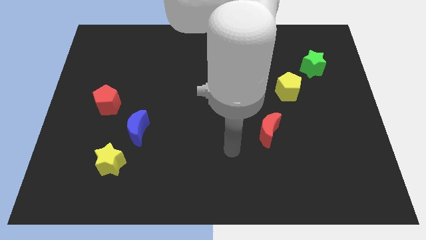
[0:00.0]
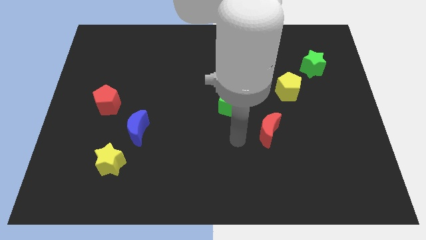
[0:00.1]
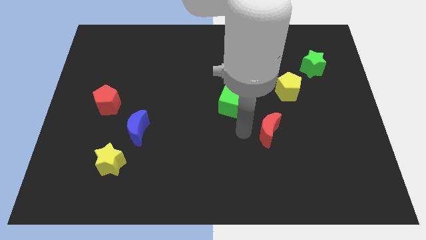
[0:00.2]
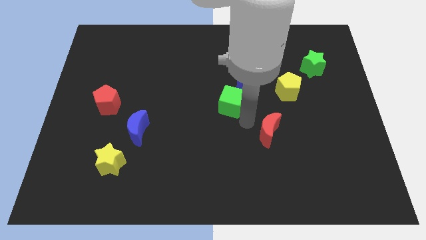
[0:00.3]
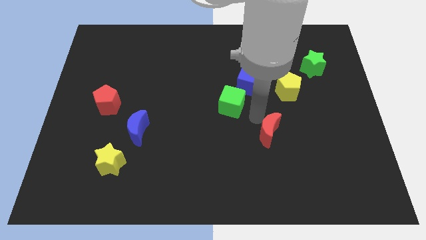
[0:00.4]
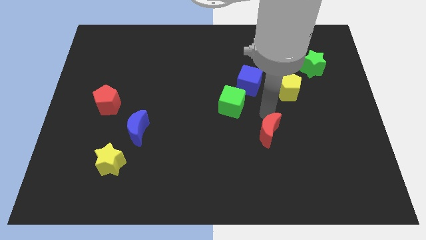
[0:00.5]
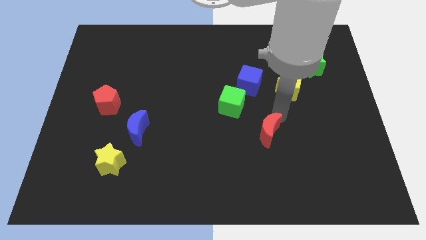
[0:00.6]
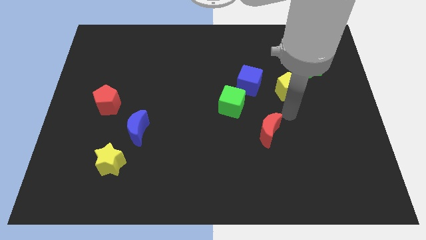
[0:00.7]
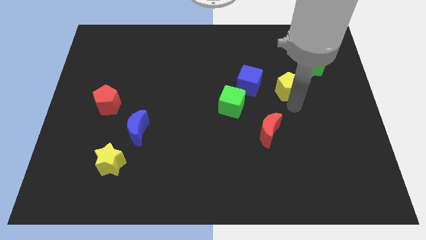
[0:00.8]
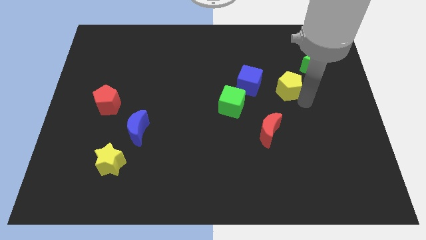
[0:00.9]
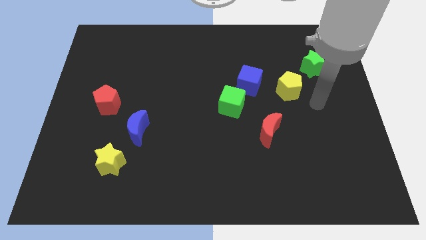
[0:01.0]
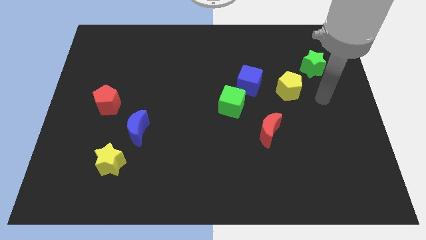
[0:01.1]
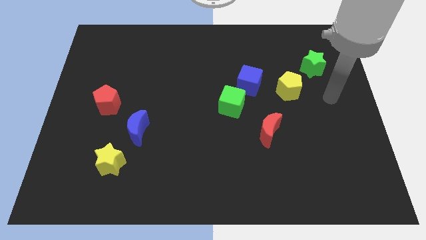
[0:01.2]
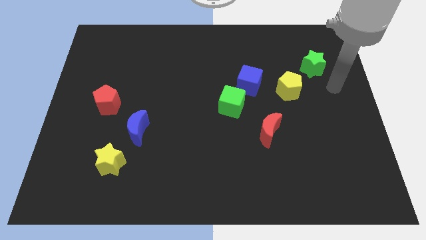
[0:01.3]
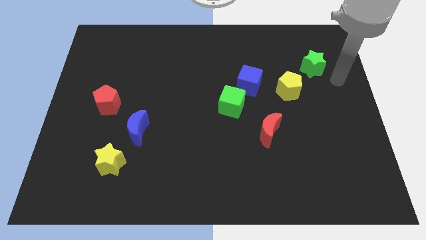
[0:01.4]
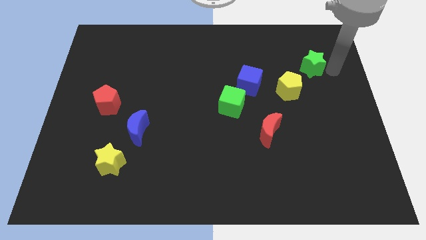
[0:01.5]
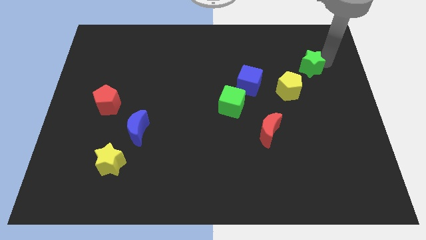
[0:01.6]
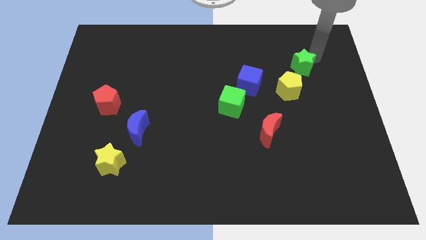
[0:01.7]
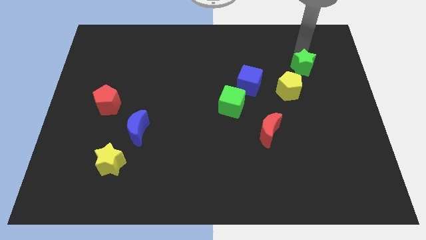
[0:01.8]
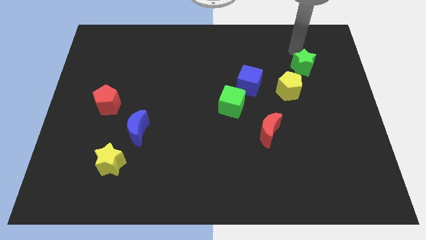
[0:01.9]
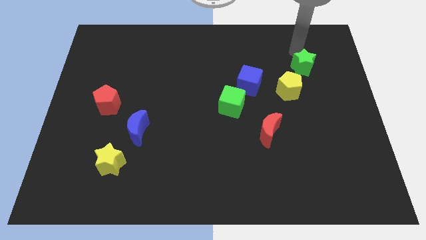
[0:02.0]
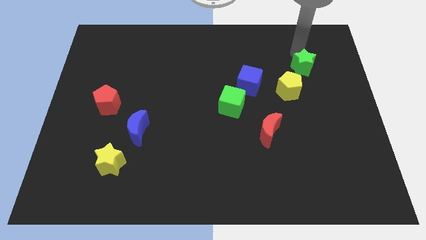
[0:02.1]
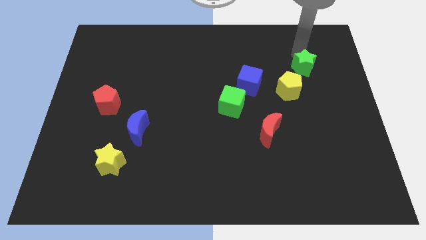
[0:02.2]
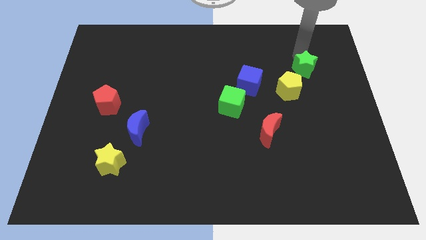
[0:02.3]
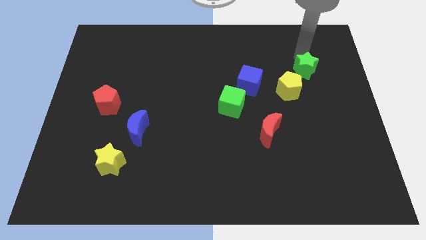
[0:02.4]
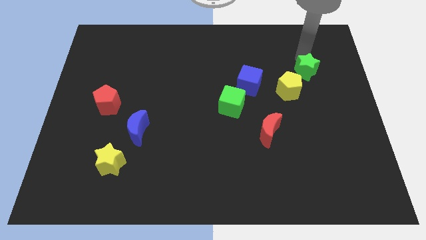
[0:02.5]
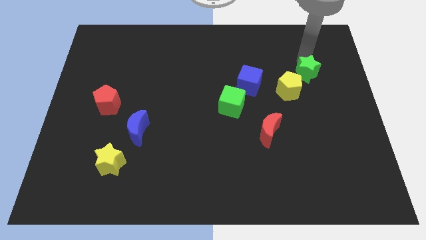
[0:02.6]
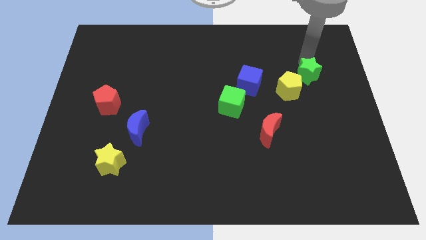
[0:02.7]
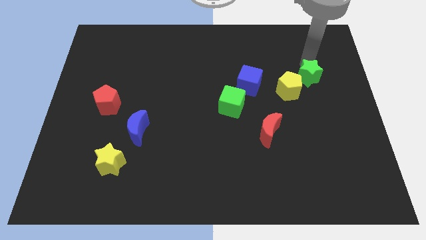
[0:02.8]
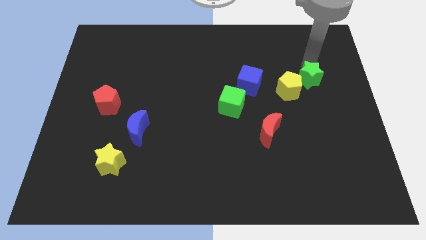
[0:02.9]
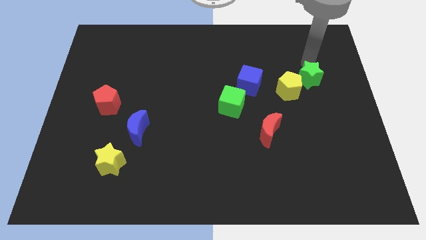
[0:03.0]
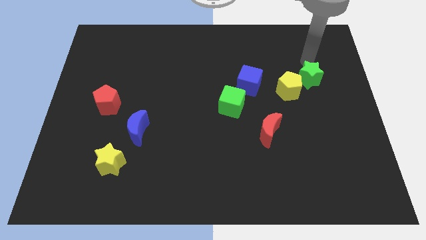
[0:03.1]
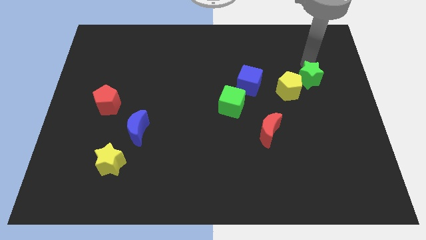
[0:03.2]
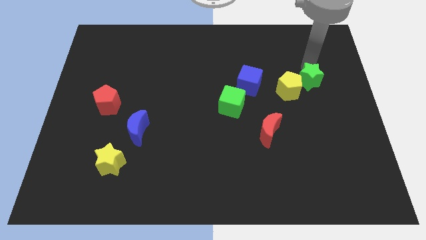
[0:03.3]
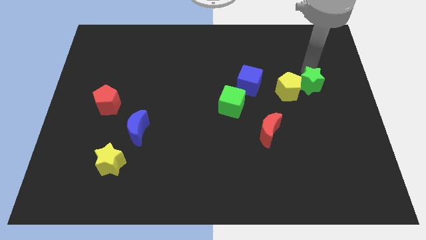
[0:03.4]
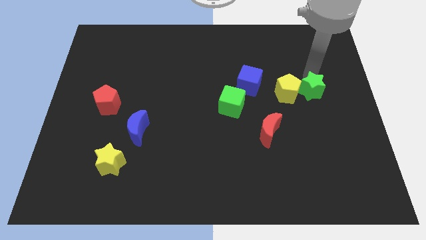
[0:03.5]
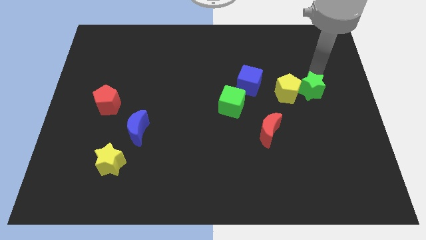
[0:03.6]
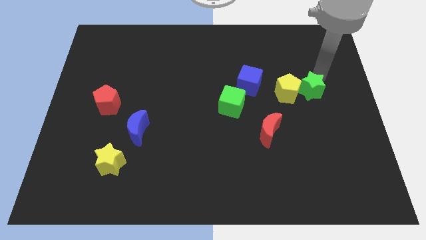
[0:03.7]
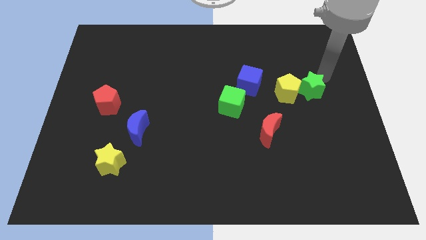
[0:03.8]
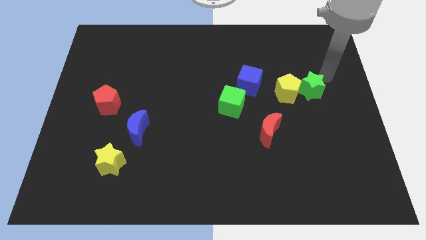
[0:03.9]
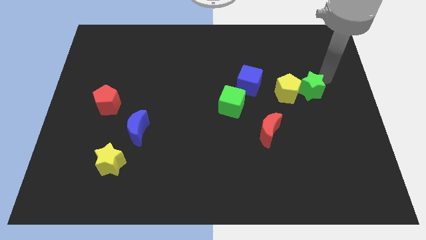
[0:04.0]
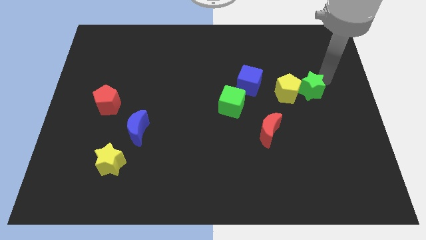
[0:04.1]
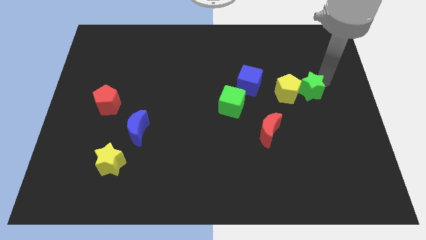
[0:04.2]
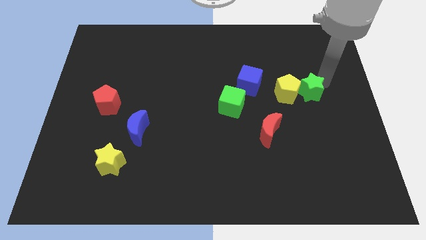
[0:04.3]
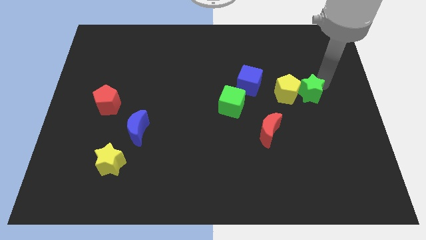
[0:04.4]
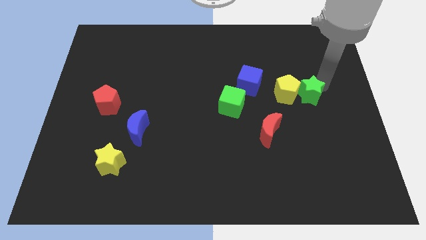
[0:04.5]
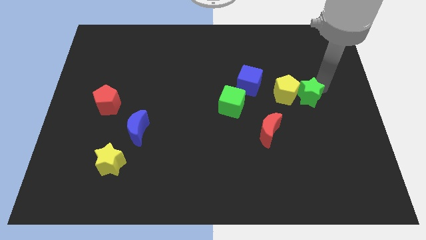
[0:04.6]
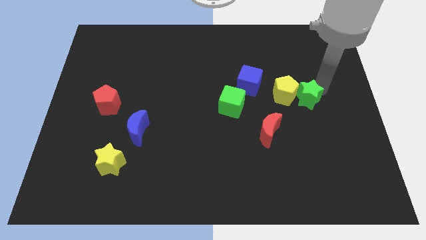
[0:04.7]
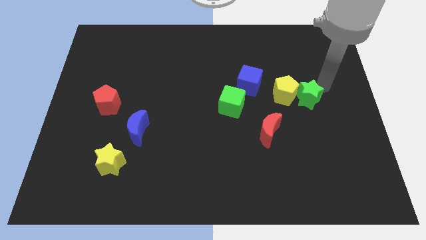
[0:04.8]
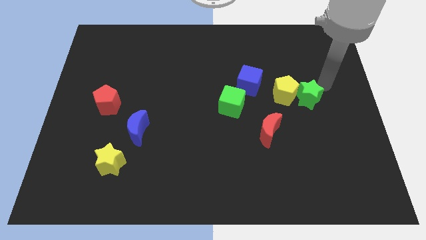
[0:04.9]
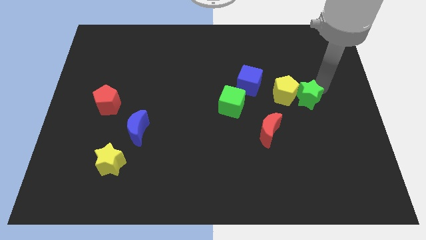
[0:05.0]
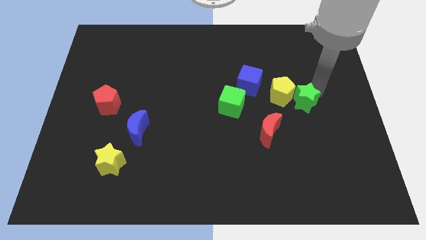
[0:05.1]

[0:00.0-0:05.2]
push the green star to the top right of the red moon
